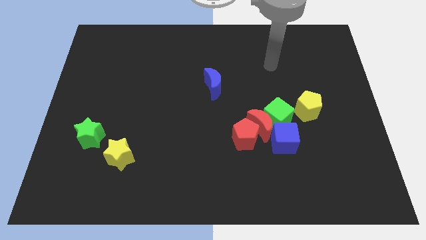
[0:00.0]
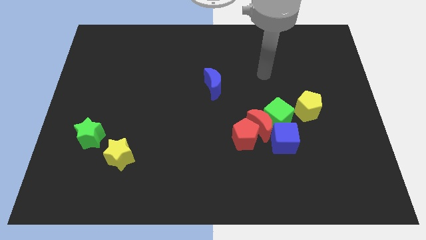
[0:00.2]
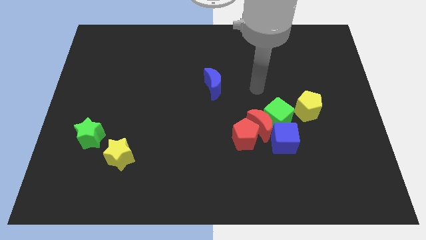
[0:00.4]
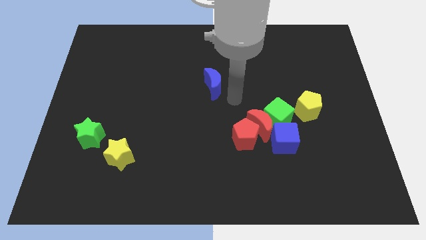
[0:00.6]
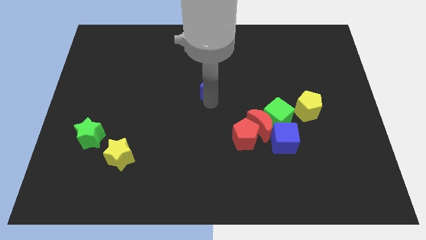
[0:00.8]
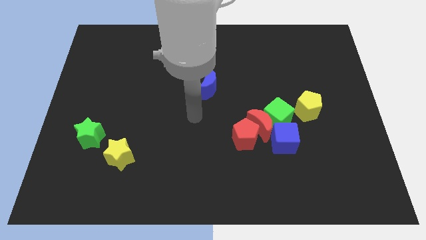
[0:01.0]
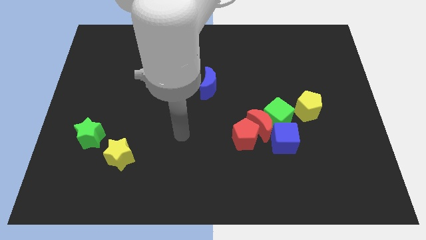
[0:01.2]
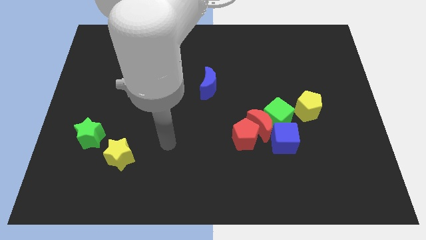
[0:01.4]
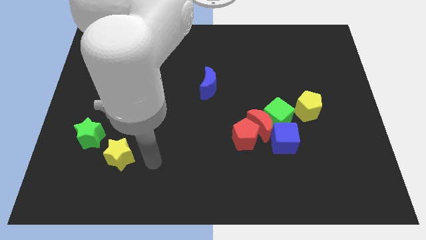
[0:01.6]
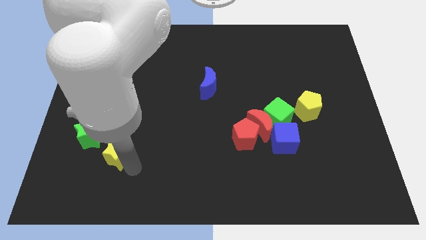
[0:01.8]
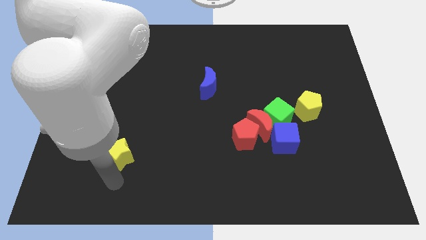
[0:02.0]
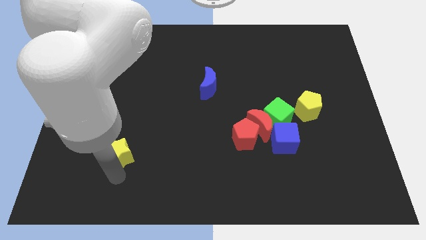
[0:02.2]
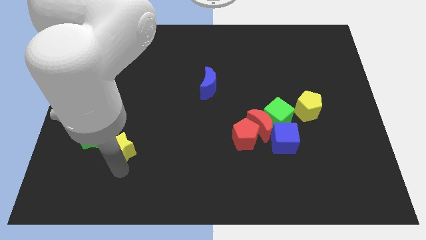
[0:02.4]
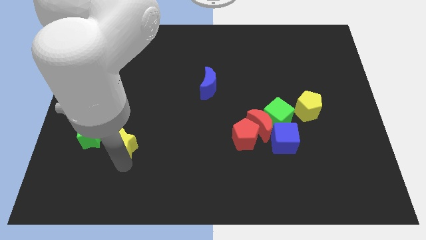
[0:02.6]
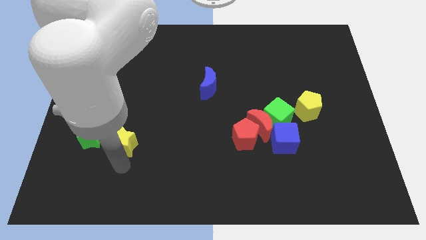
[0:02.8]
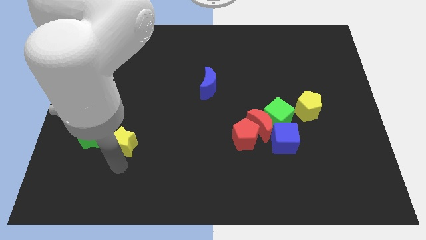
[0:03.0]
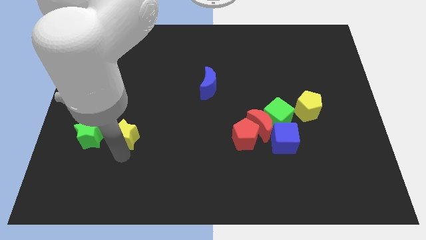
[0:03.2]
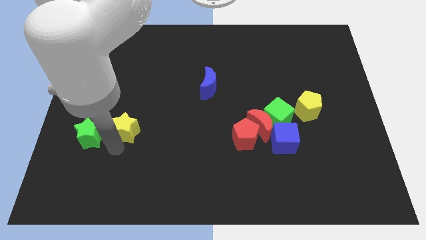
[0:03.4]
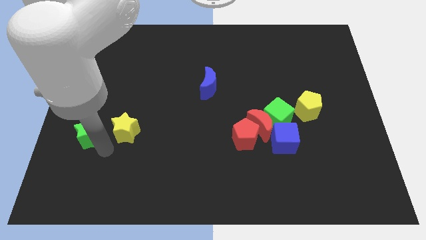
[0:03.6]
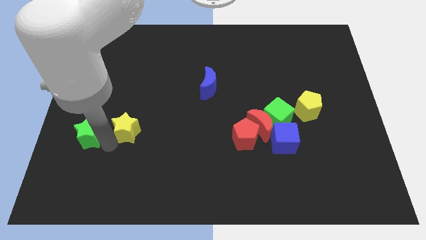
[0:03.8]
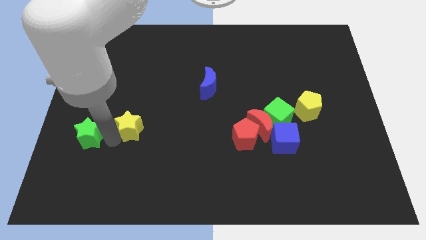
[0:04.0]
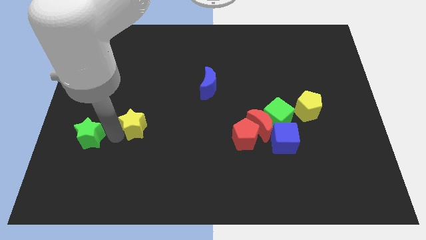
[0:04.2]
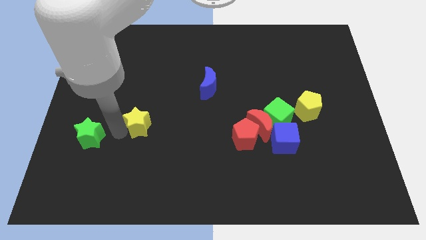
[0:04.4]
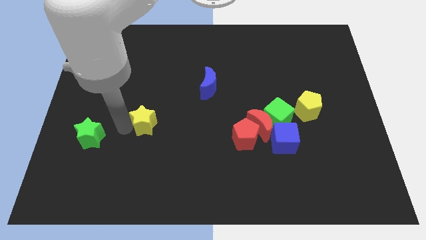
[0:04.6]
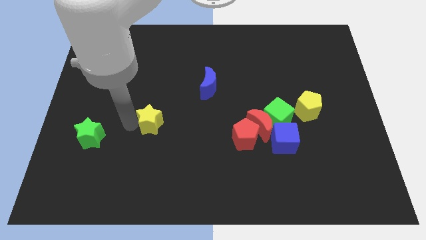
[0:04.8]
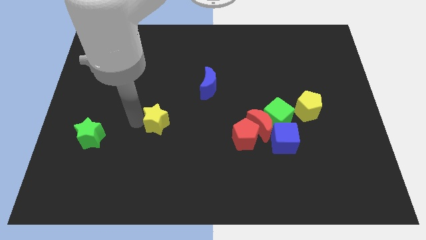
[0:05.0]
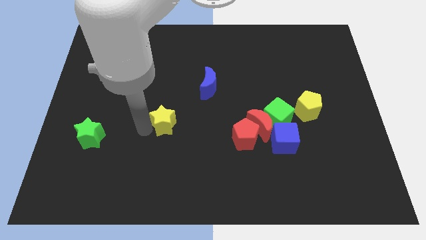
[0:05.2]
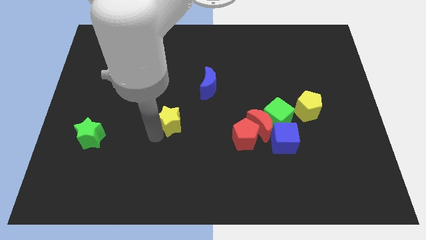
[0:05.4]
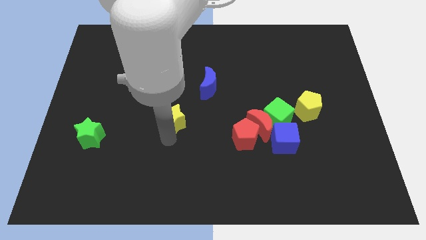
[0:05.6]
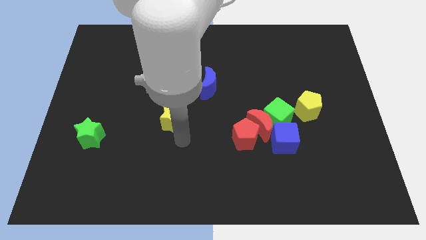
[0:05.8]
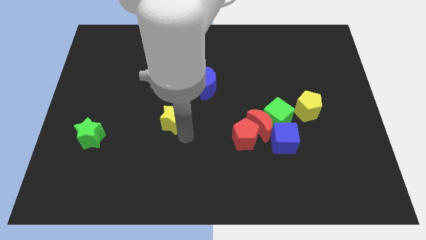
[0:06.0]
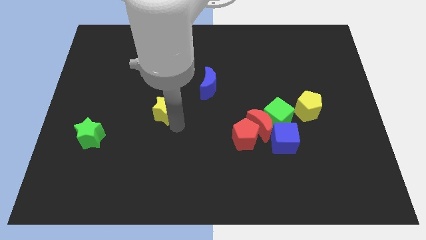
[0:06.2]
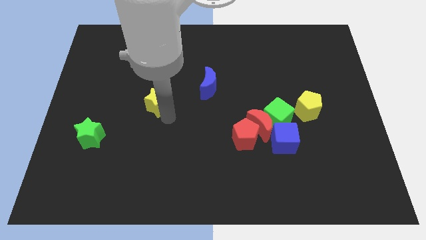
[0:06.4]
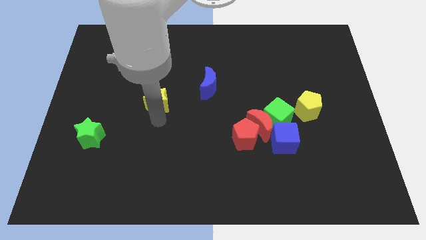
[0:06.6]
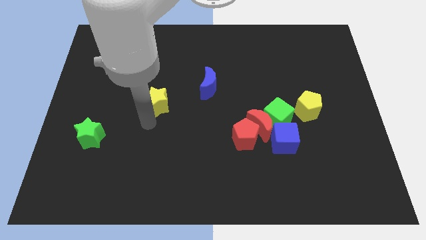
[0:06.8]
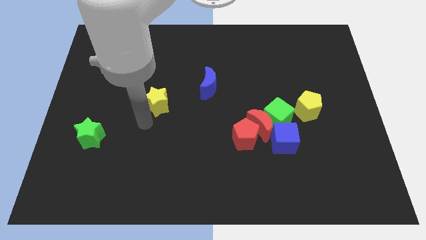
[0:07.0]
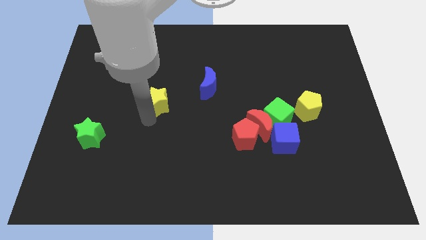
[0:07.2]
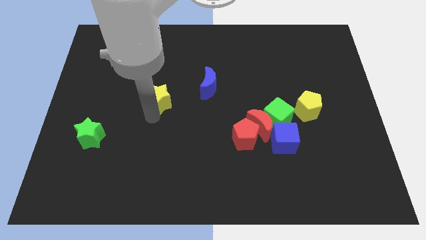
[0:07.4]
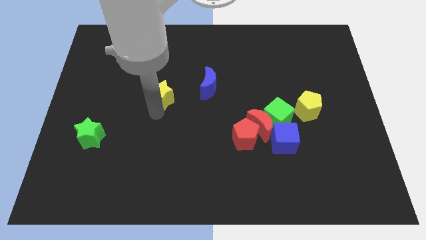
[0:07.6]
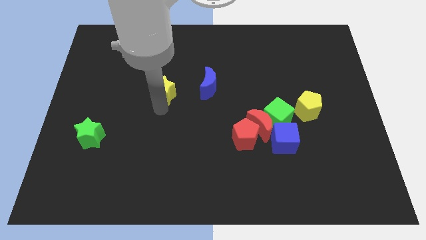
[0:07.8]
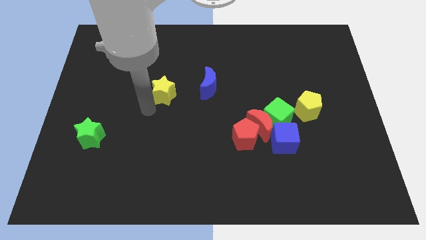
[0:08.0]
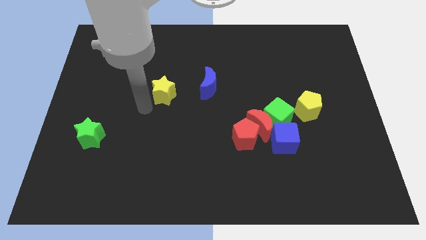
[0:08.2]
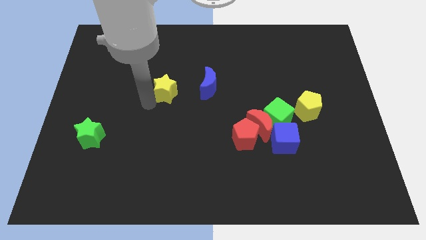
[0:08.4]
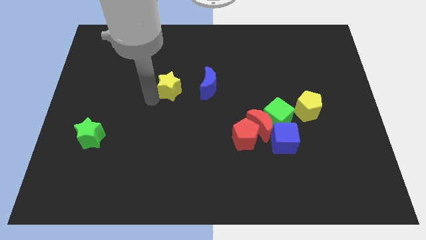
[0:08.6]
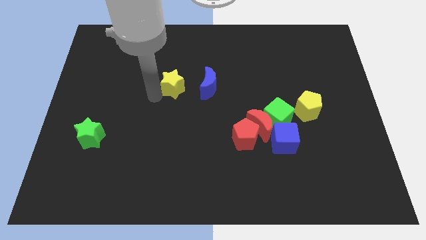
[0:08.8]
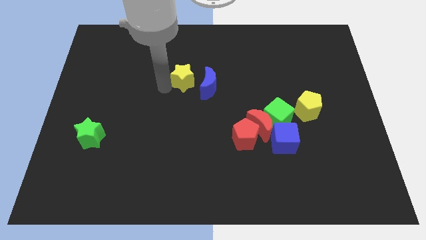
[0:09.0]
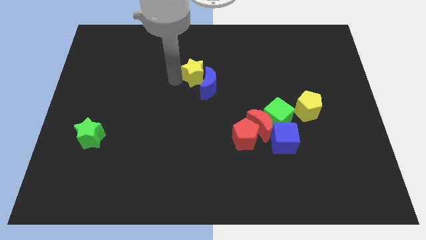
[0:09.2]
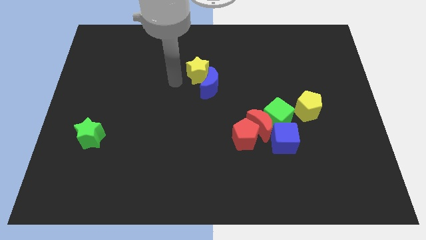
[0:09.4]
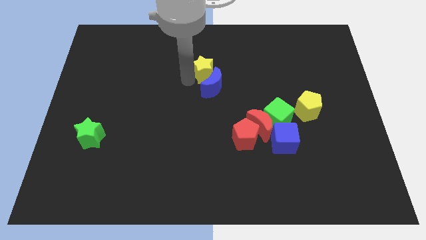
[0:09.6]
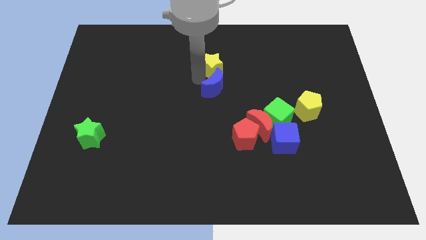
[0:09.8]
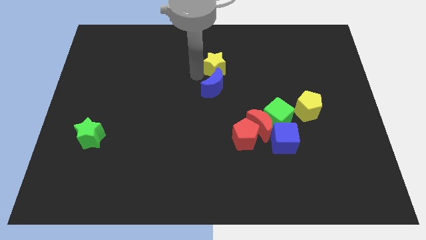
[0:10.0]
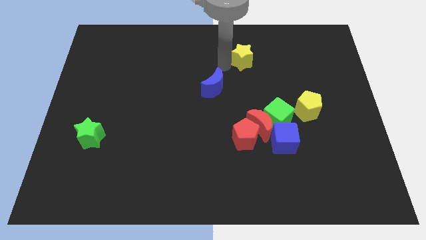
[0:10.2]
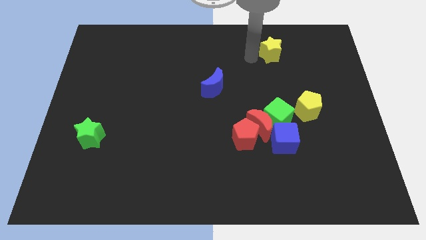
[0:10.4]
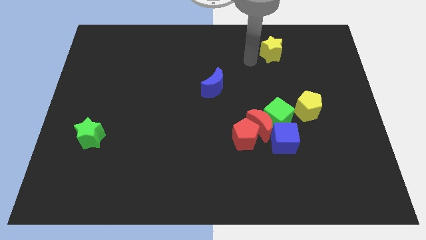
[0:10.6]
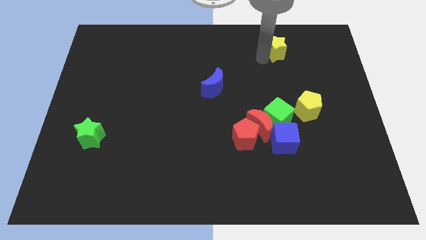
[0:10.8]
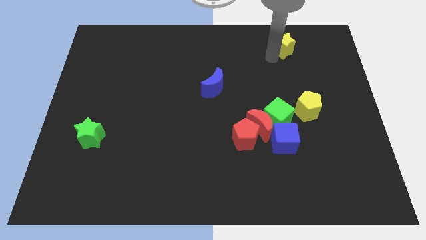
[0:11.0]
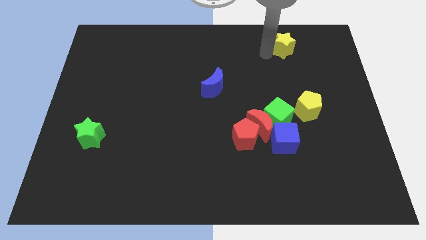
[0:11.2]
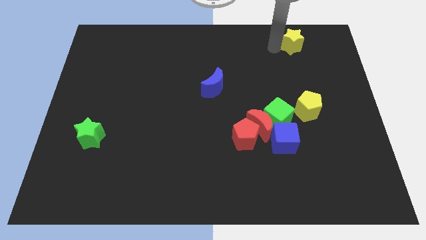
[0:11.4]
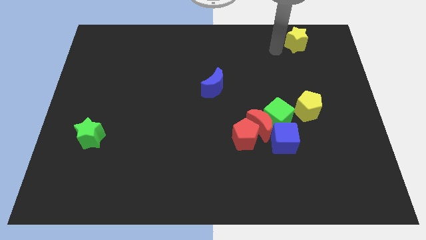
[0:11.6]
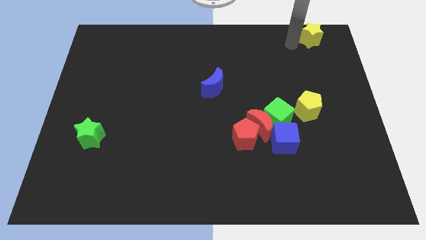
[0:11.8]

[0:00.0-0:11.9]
push the yellow star to the top right

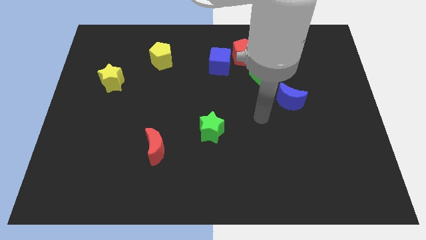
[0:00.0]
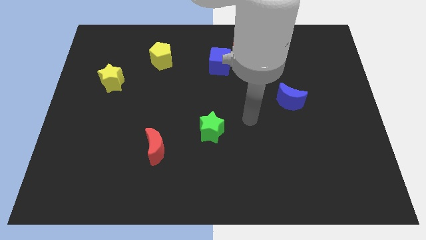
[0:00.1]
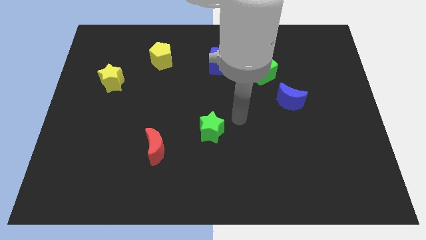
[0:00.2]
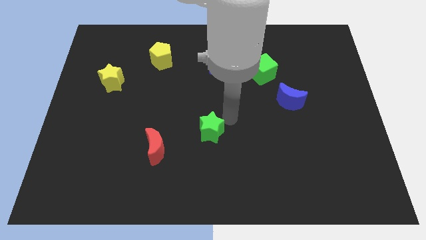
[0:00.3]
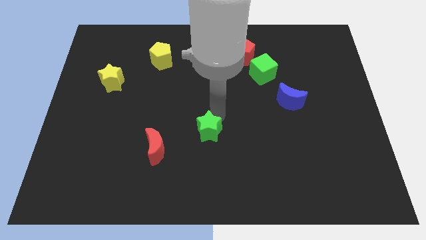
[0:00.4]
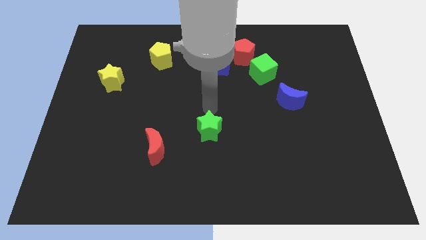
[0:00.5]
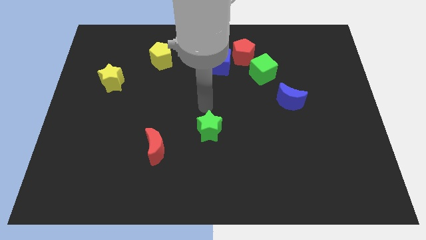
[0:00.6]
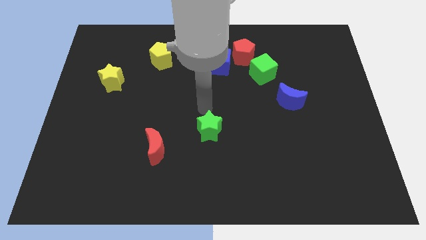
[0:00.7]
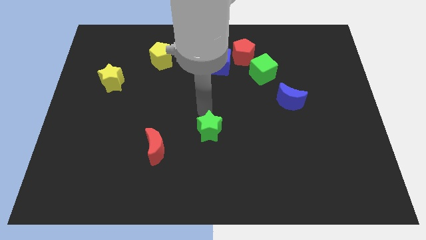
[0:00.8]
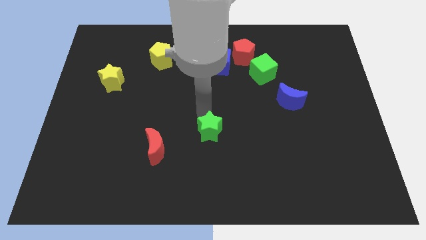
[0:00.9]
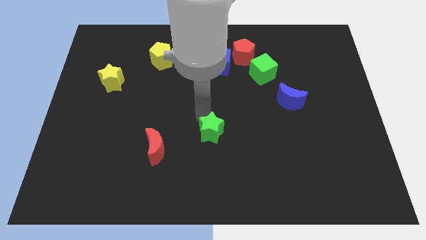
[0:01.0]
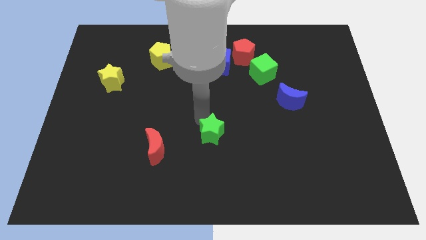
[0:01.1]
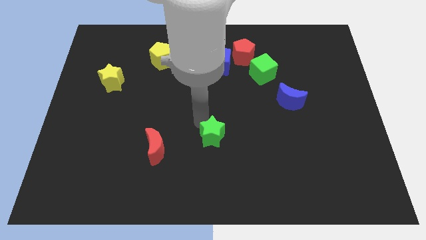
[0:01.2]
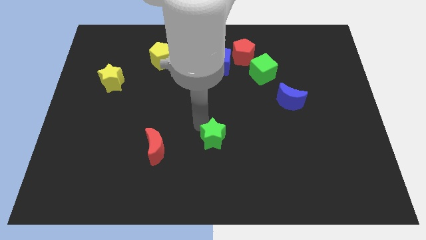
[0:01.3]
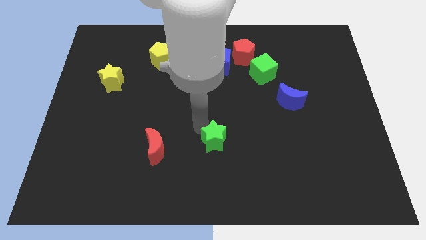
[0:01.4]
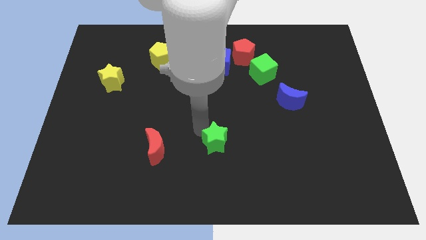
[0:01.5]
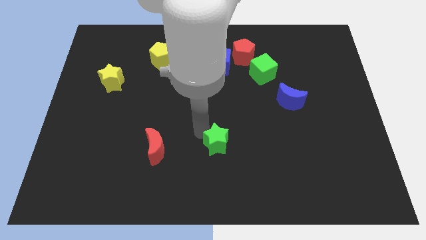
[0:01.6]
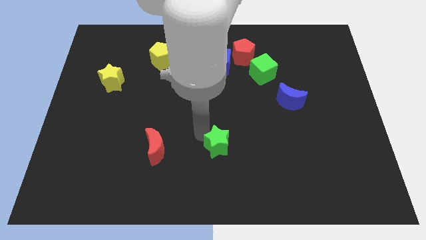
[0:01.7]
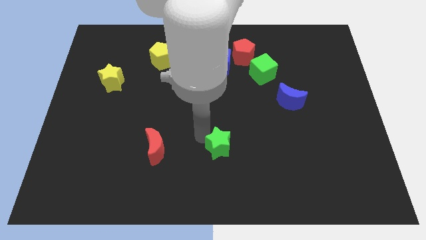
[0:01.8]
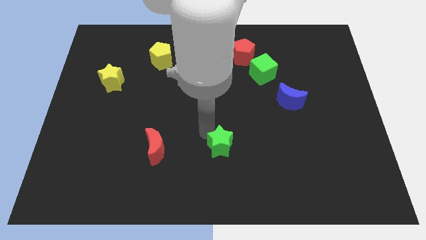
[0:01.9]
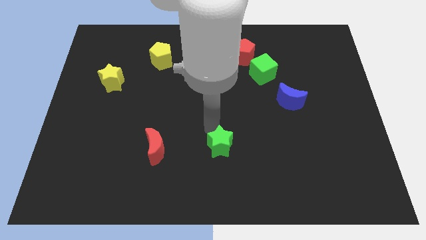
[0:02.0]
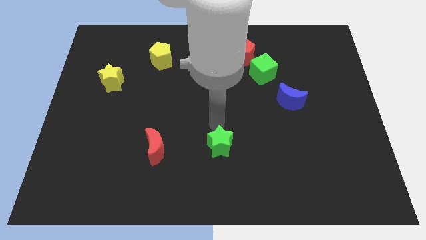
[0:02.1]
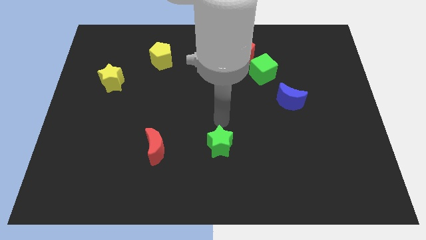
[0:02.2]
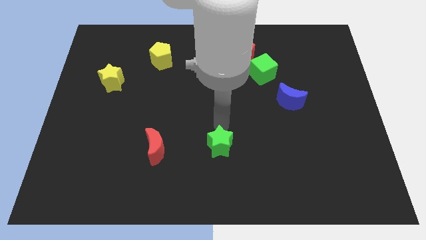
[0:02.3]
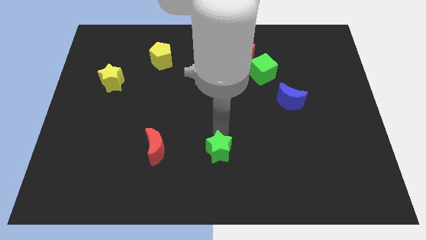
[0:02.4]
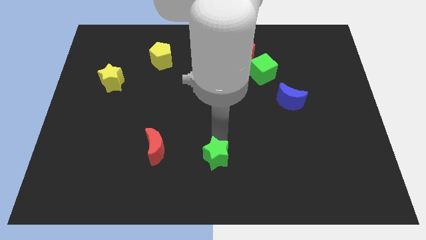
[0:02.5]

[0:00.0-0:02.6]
move the green star to the bottom side
